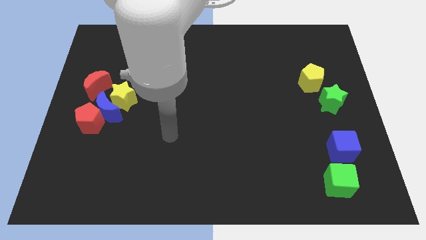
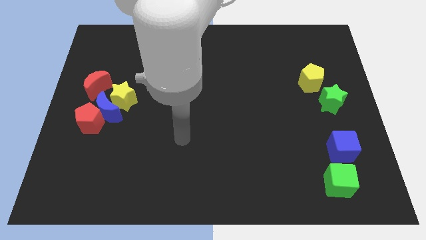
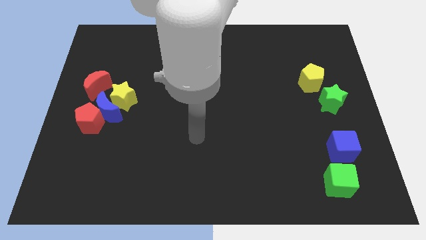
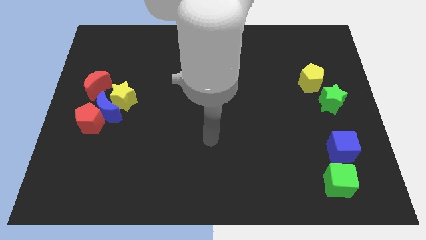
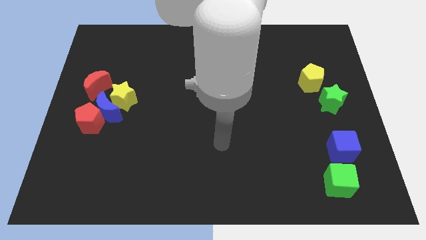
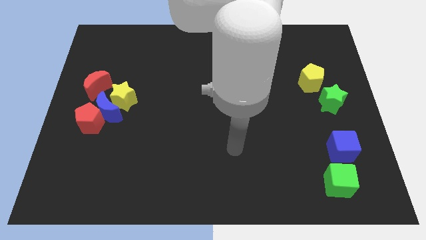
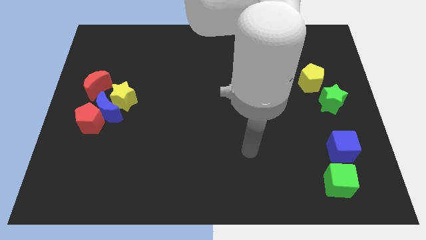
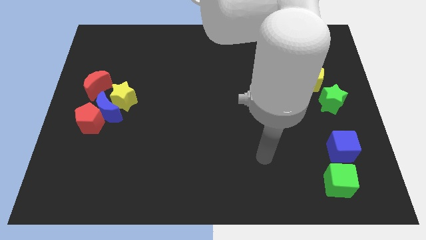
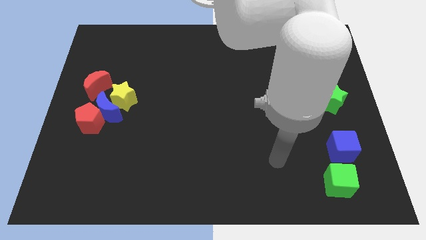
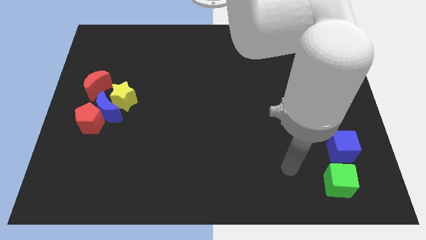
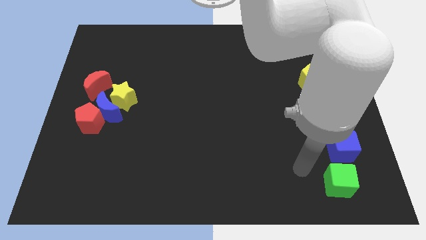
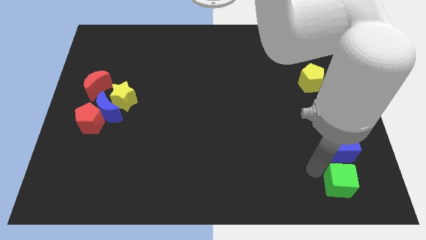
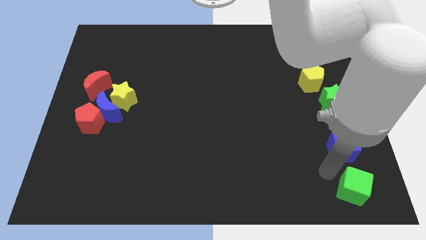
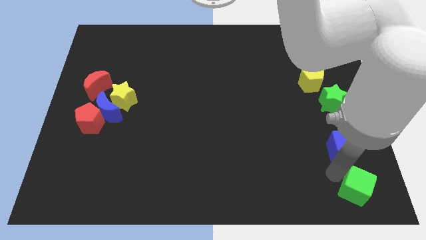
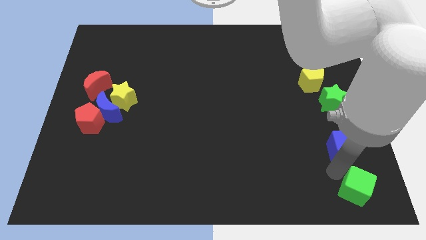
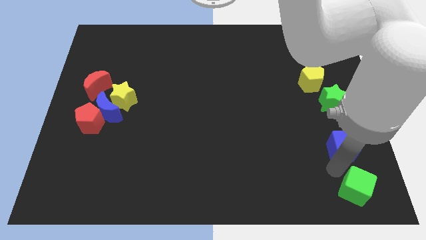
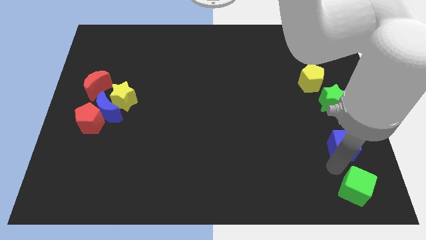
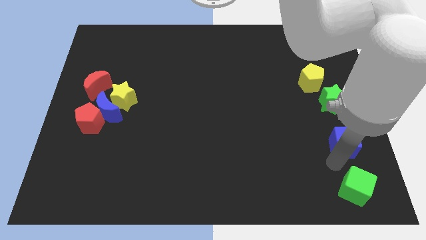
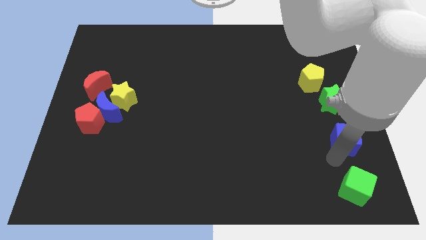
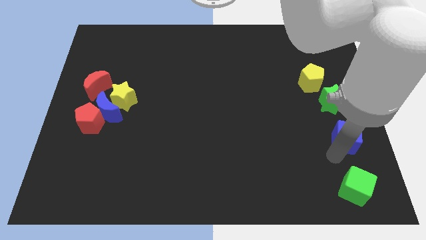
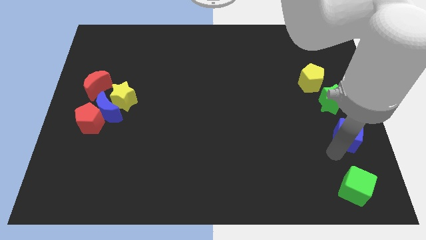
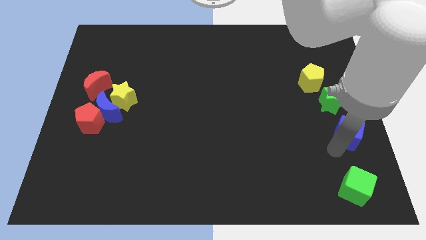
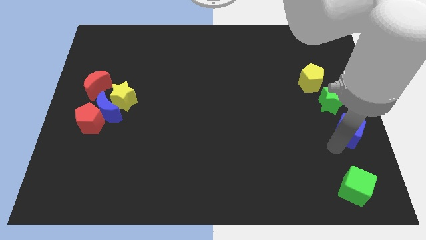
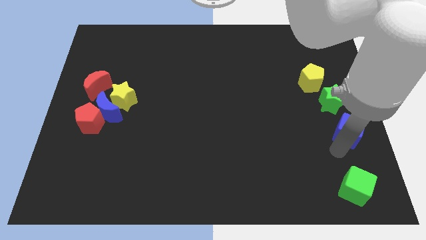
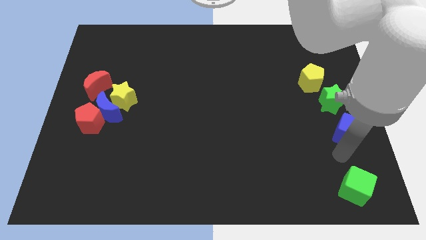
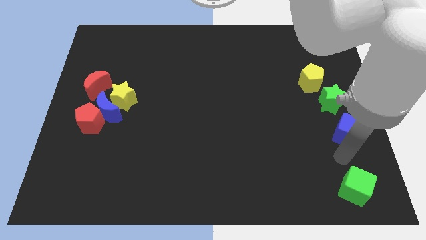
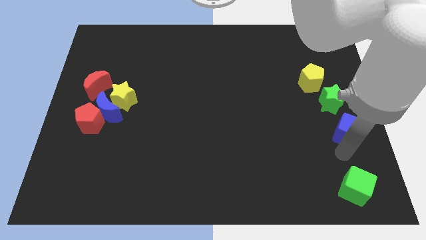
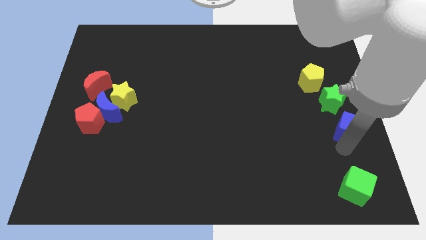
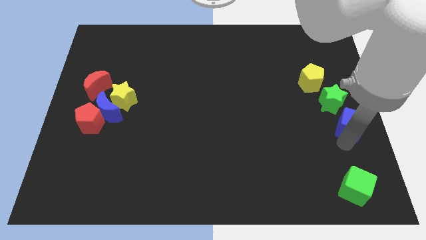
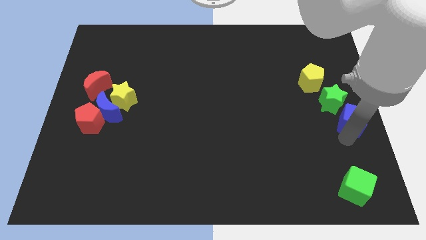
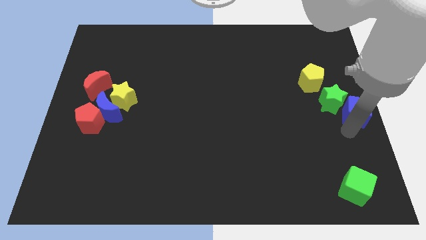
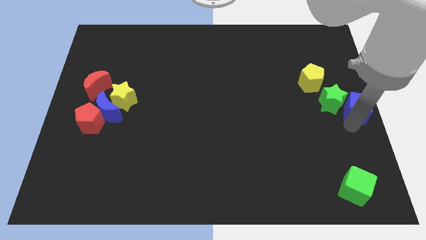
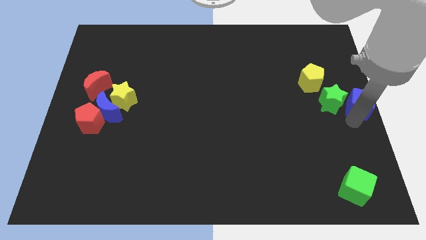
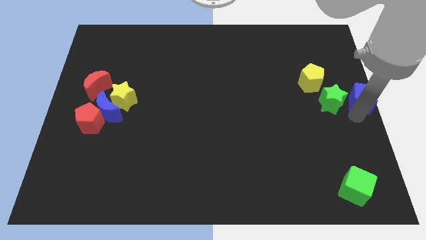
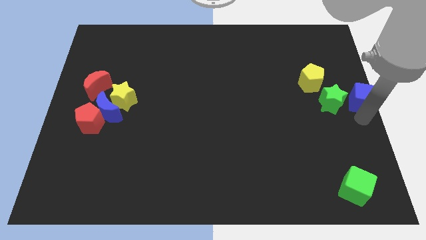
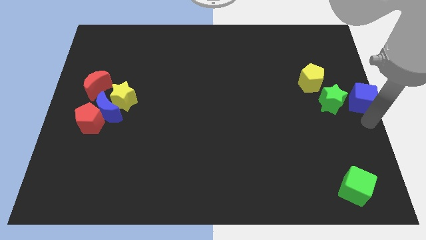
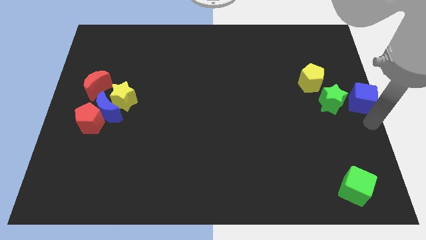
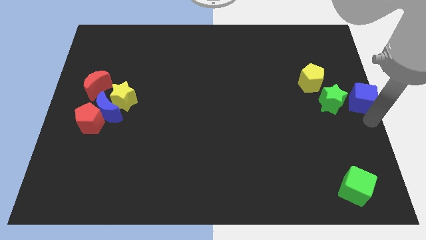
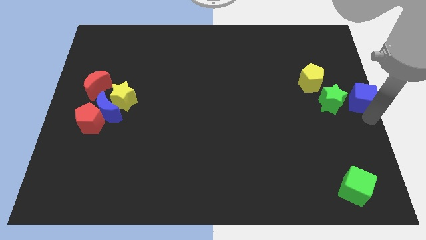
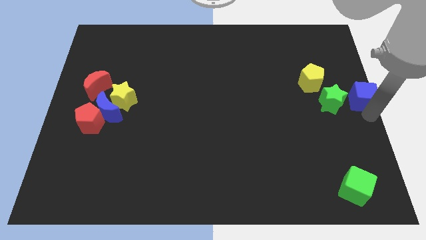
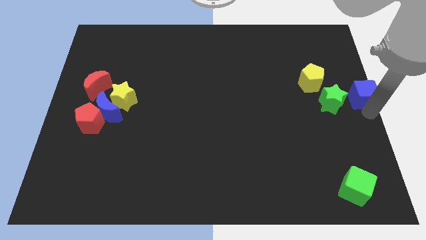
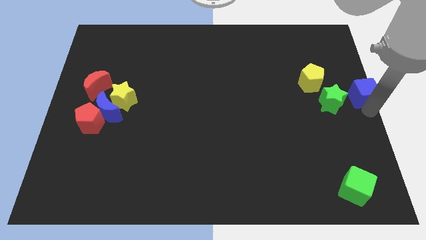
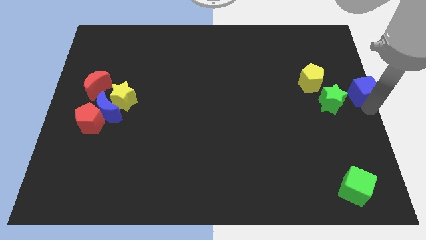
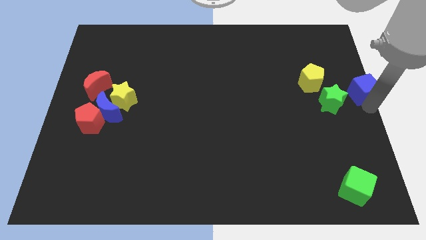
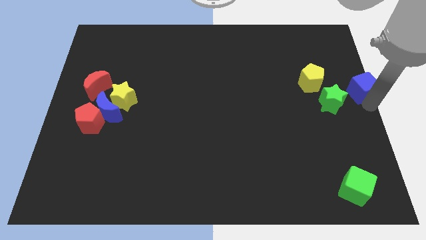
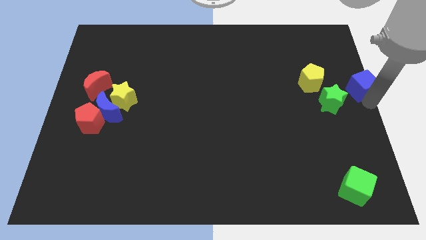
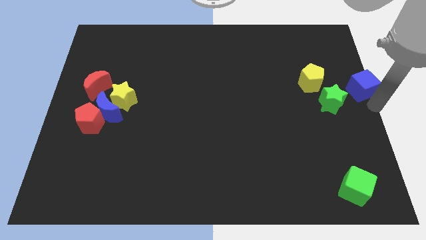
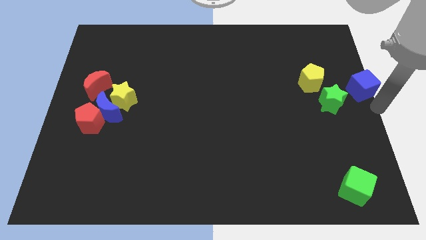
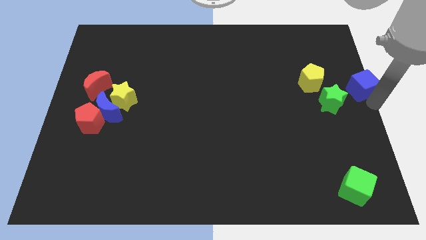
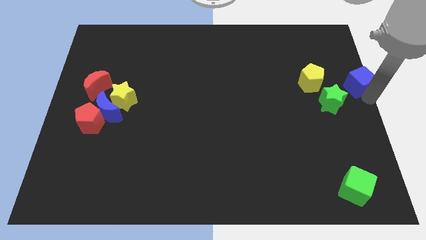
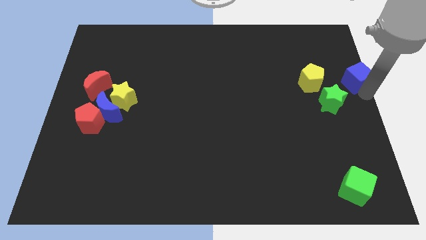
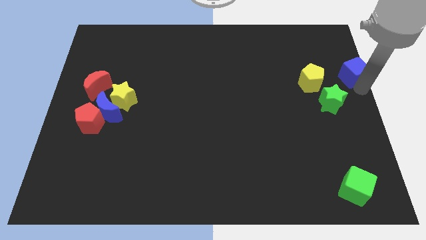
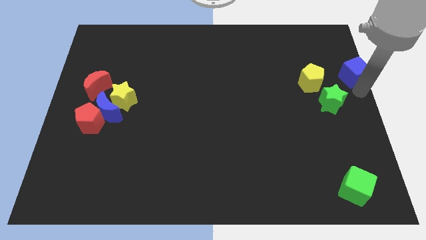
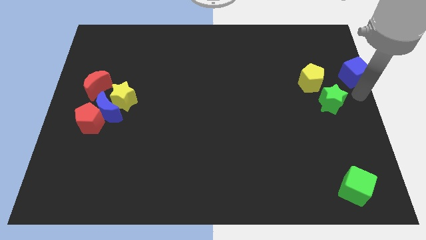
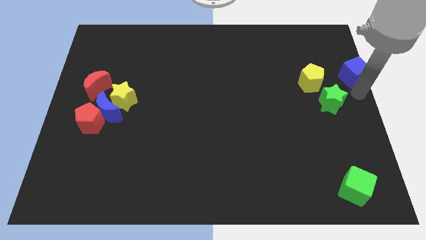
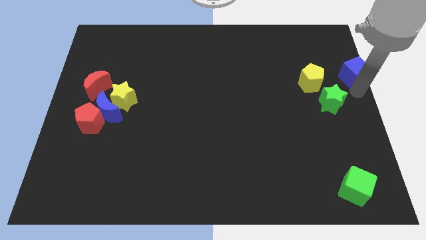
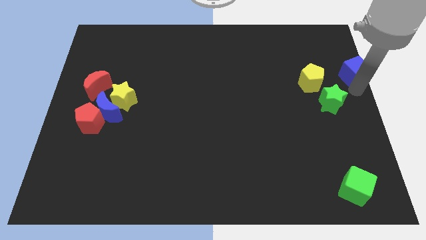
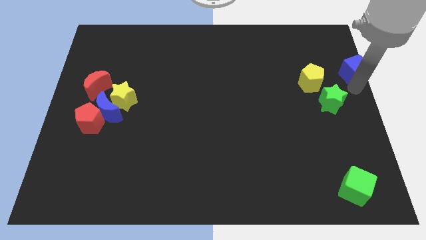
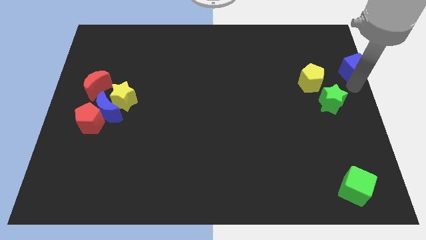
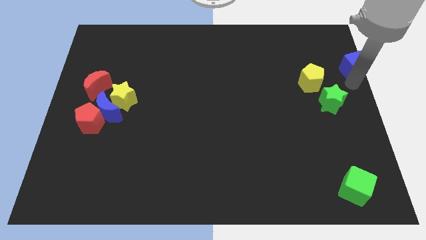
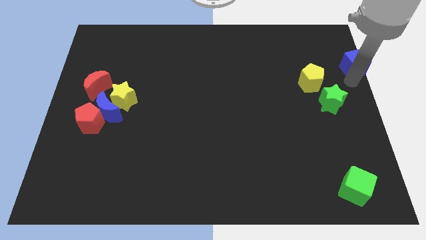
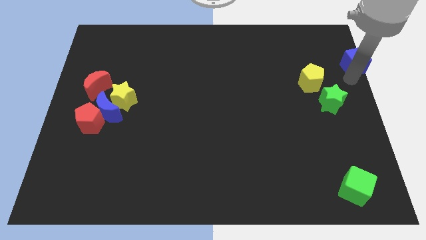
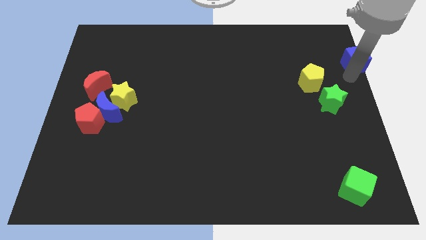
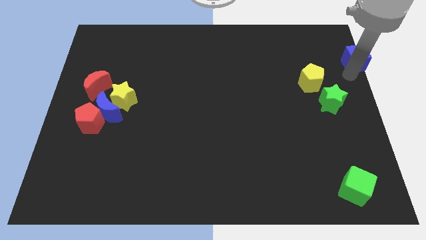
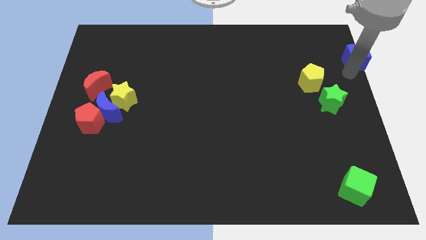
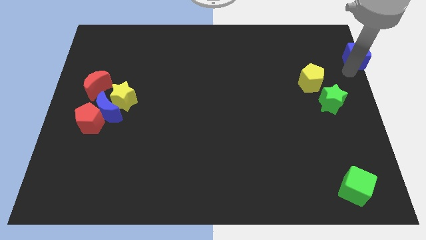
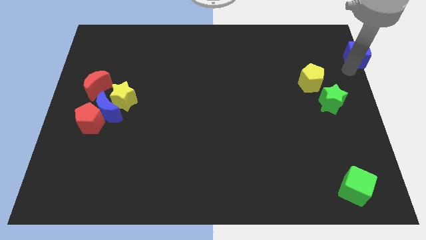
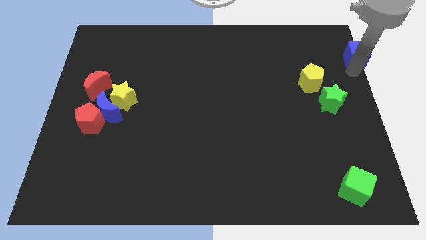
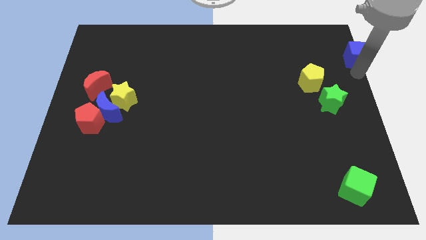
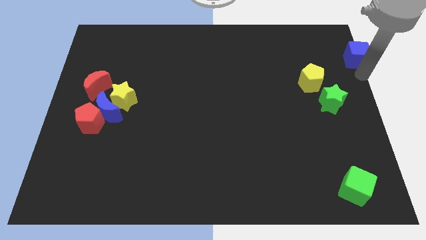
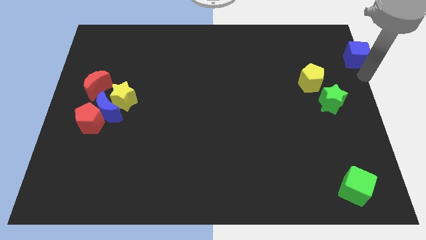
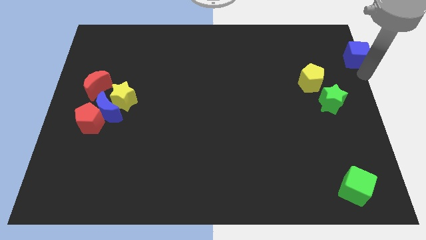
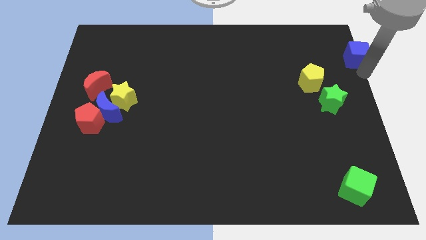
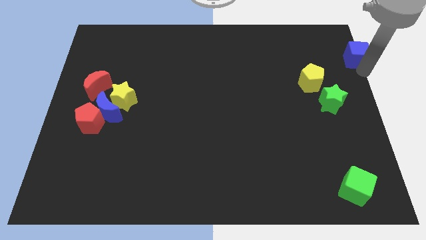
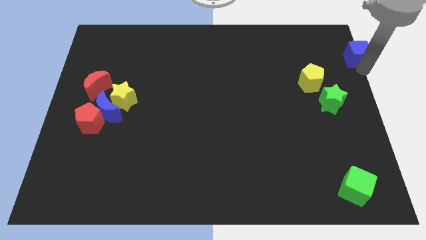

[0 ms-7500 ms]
push the blue cube to the top right of the board
